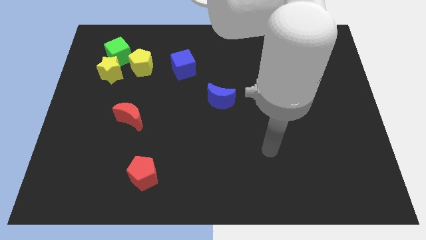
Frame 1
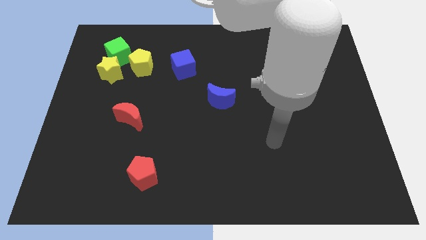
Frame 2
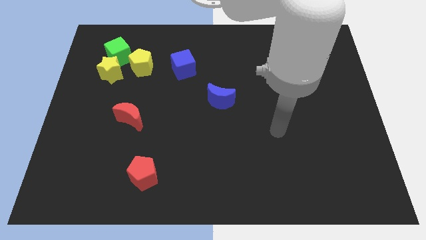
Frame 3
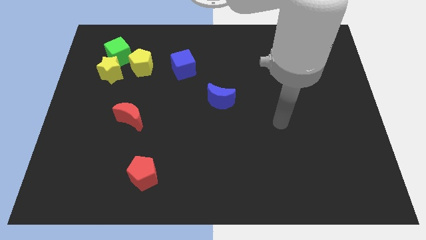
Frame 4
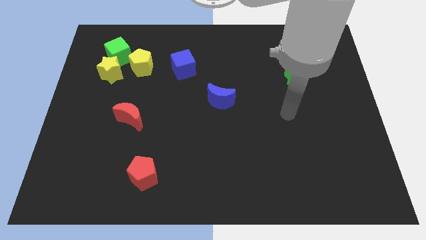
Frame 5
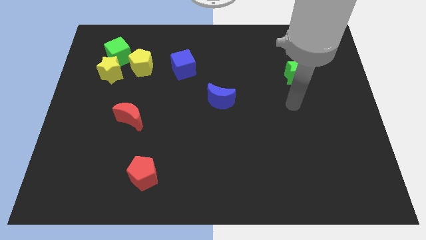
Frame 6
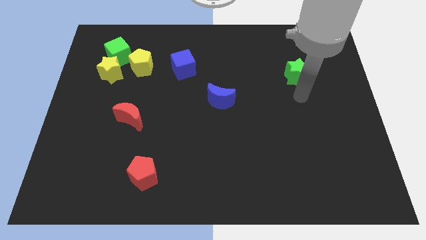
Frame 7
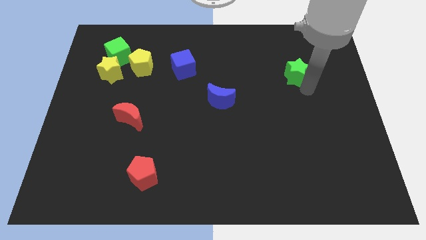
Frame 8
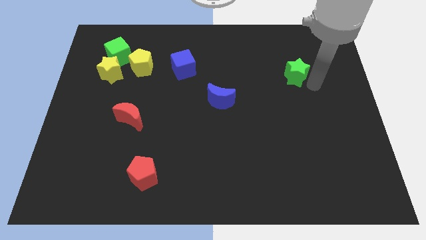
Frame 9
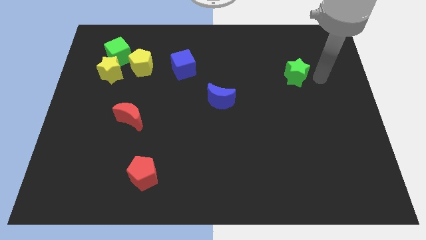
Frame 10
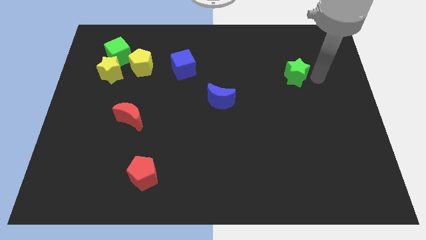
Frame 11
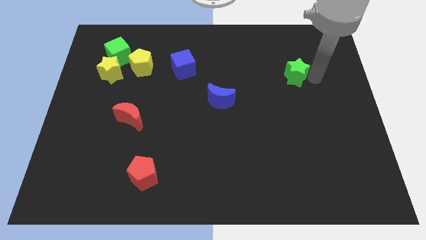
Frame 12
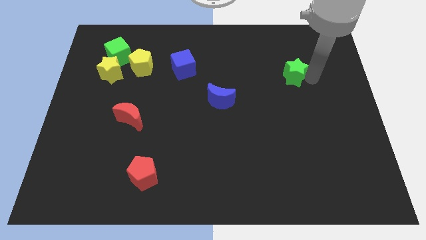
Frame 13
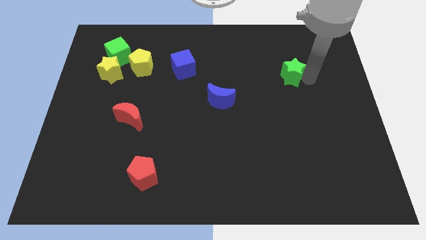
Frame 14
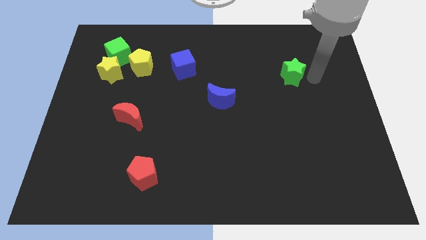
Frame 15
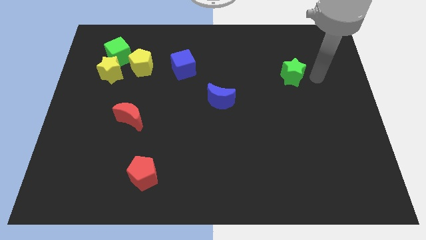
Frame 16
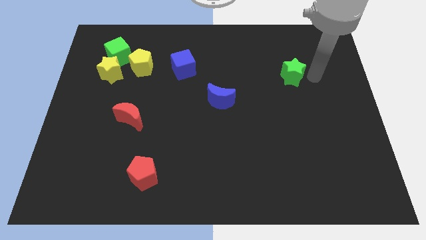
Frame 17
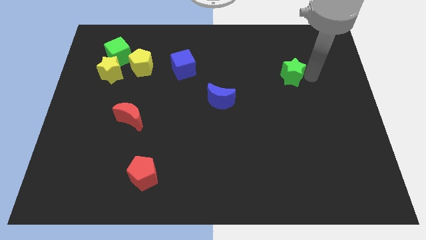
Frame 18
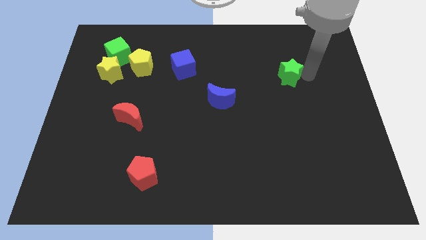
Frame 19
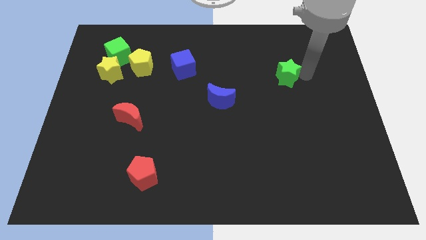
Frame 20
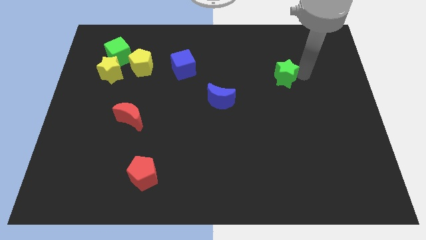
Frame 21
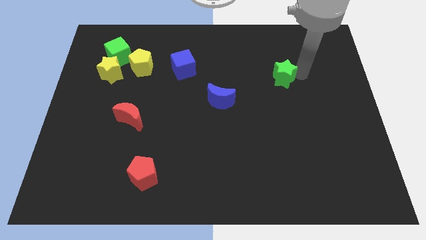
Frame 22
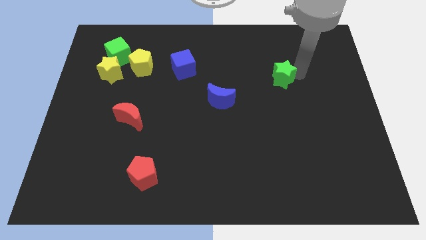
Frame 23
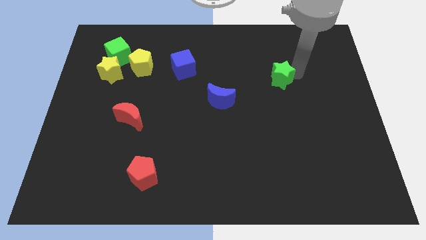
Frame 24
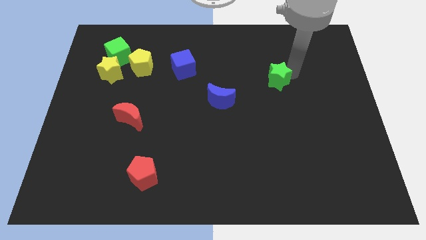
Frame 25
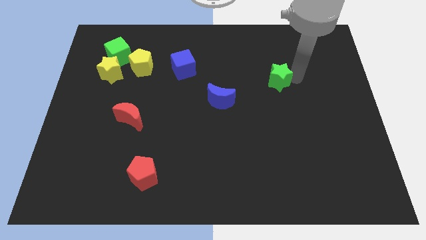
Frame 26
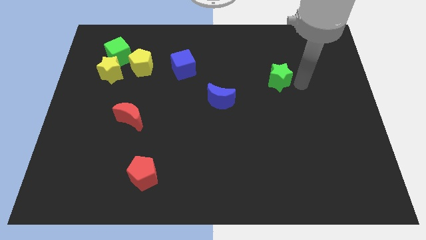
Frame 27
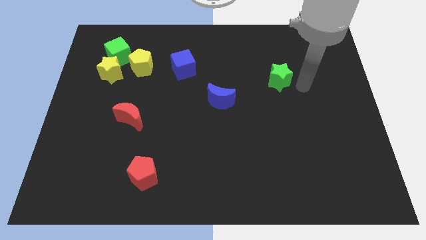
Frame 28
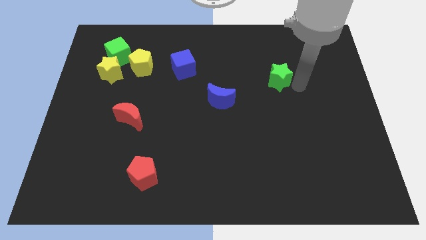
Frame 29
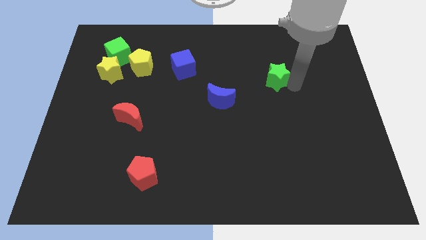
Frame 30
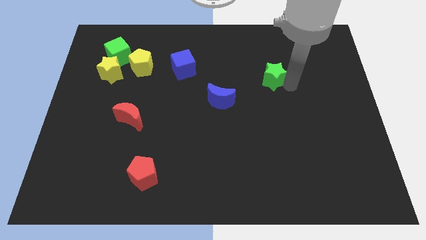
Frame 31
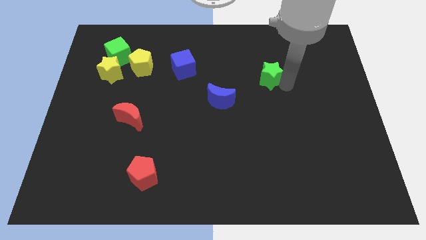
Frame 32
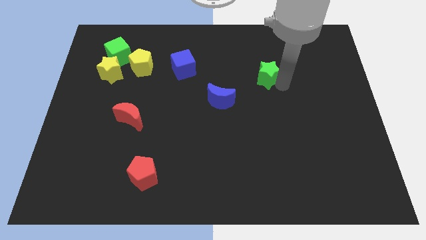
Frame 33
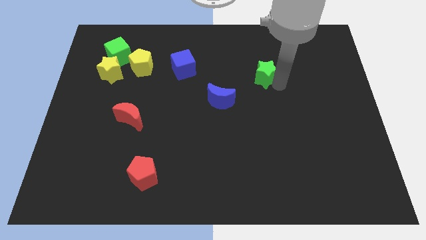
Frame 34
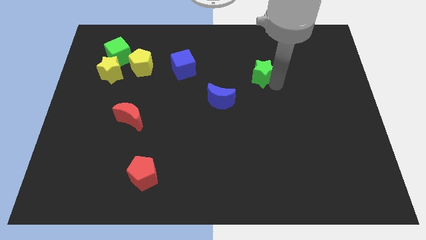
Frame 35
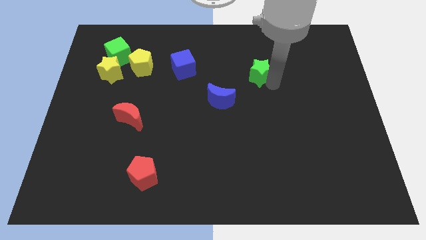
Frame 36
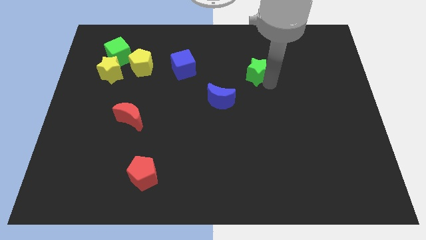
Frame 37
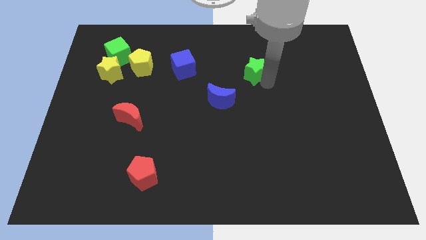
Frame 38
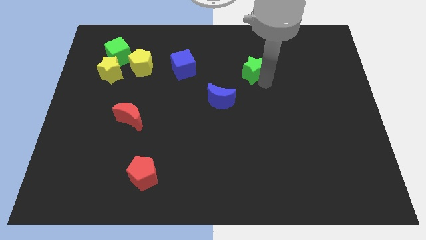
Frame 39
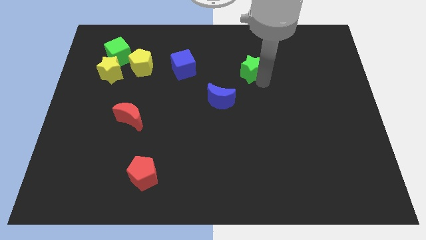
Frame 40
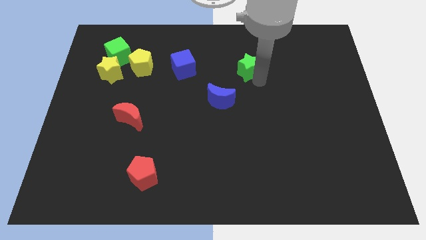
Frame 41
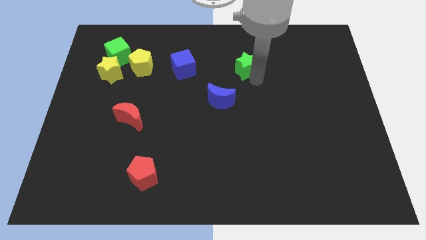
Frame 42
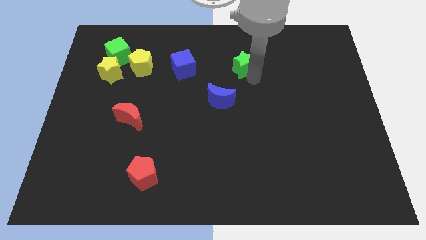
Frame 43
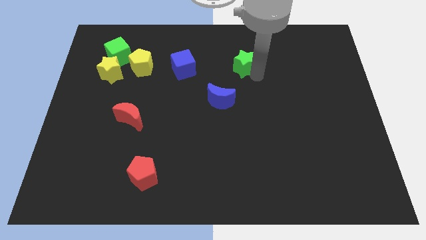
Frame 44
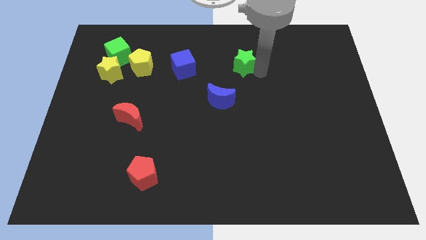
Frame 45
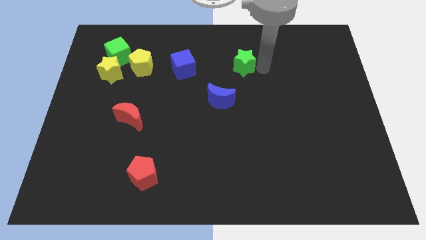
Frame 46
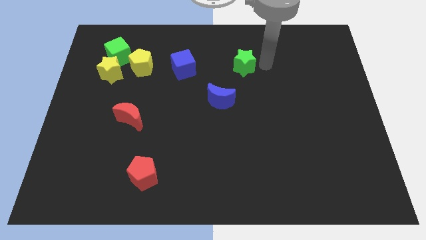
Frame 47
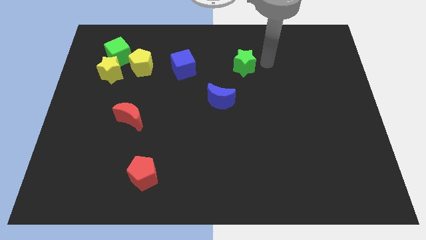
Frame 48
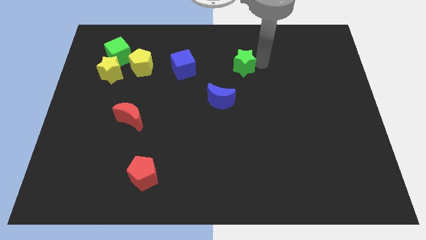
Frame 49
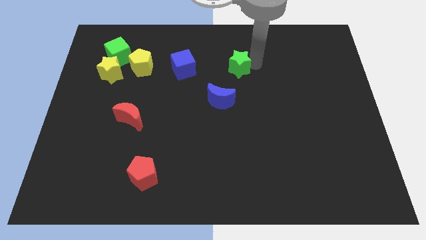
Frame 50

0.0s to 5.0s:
move the green star to the top side of the blue moon

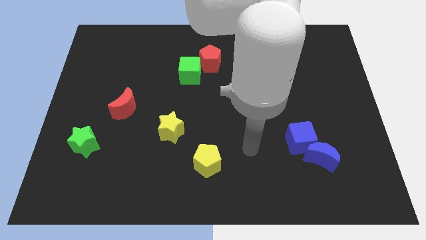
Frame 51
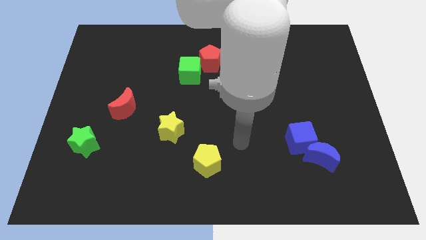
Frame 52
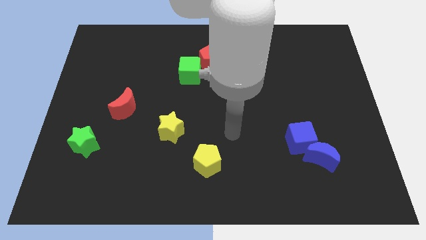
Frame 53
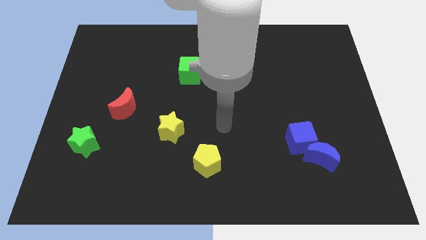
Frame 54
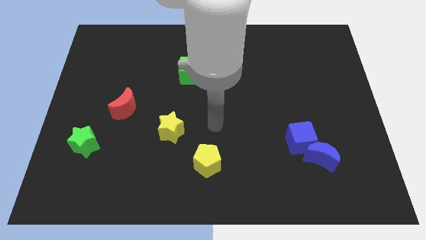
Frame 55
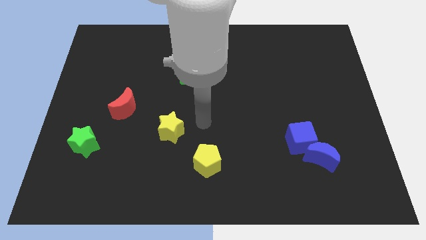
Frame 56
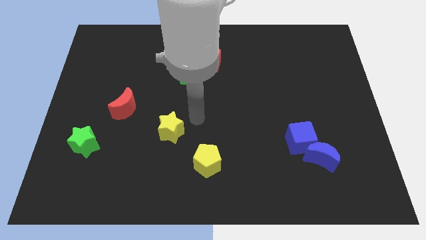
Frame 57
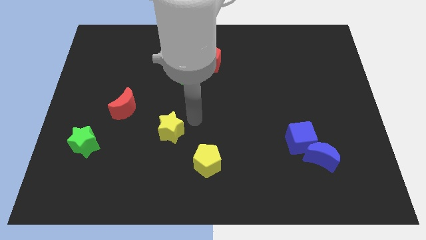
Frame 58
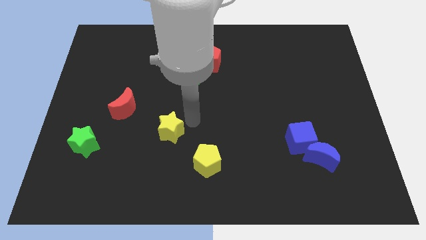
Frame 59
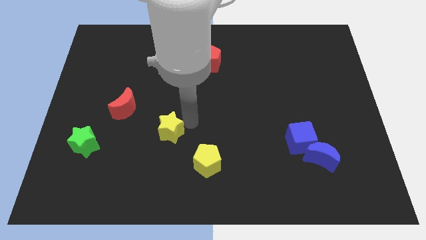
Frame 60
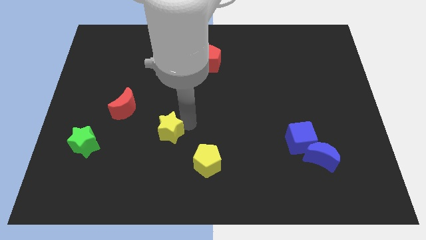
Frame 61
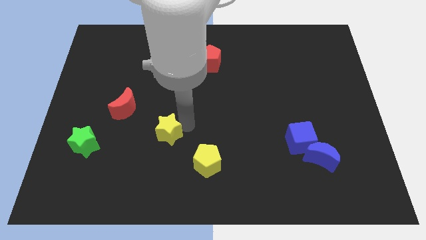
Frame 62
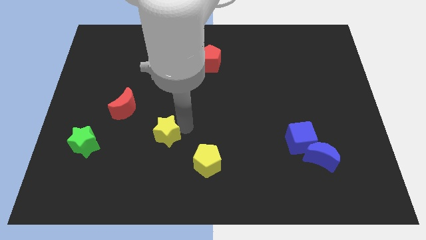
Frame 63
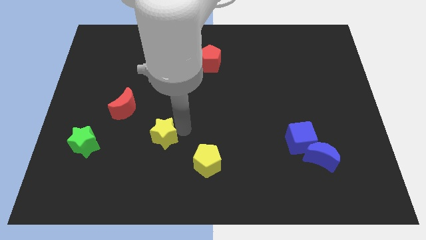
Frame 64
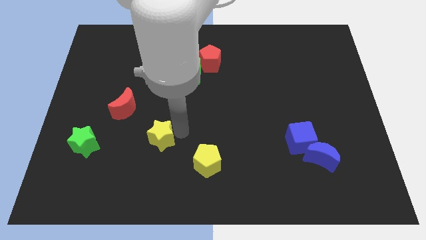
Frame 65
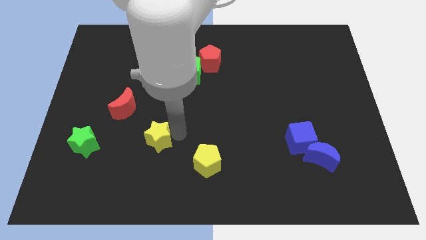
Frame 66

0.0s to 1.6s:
push the yellow star to the right side of the green star
